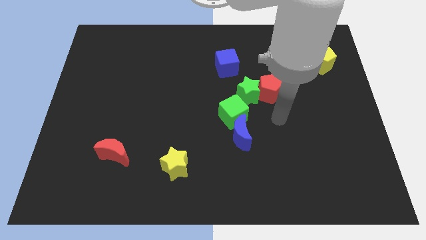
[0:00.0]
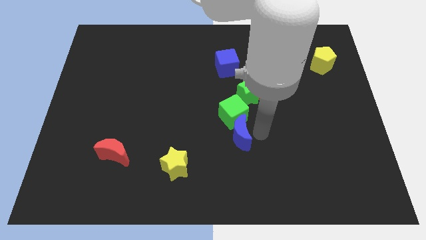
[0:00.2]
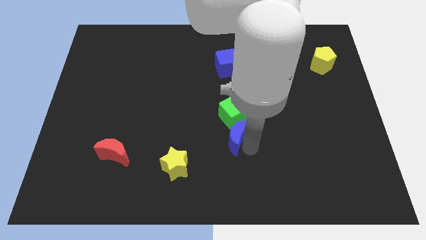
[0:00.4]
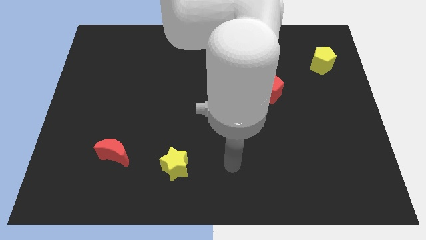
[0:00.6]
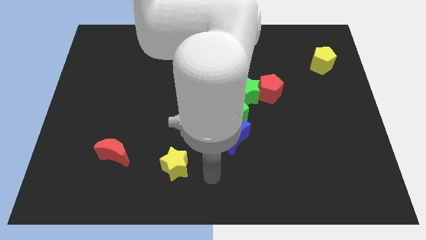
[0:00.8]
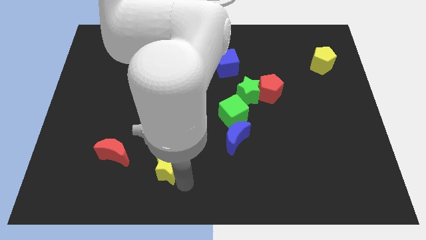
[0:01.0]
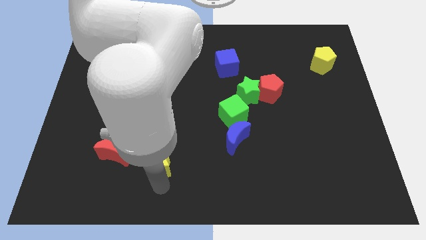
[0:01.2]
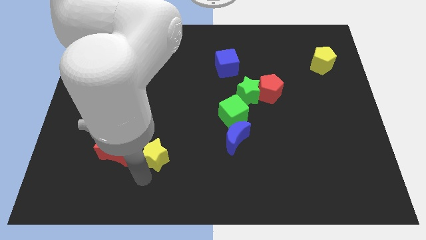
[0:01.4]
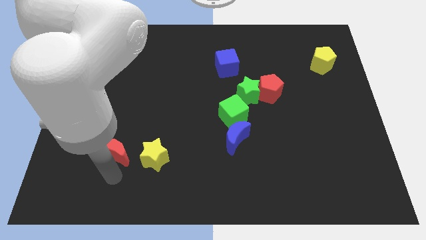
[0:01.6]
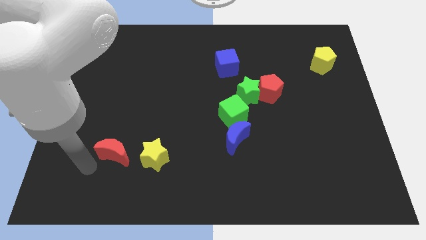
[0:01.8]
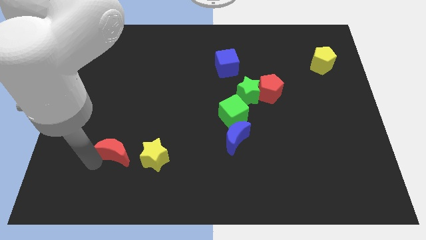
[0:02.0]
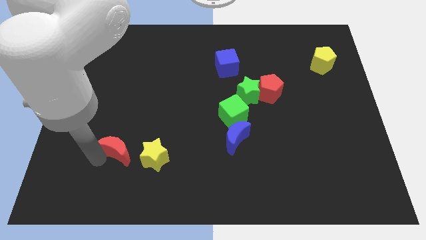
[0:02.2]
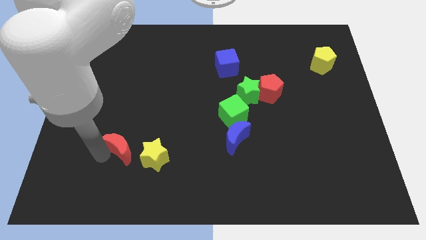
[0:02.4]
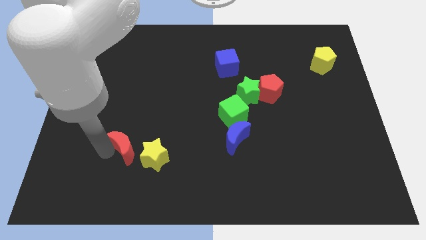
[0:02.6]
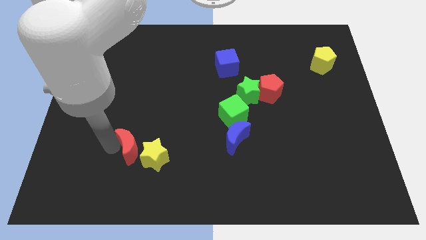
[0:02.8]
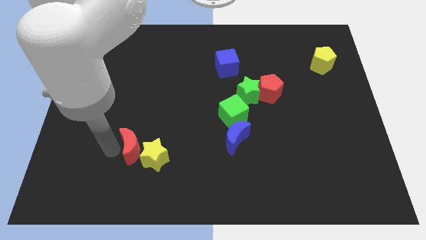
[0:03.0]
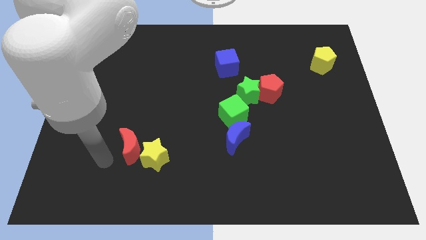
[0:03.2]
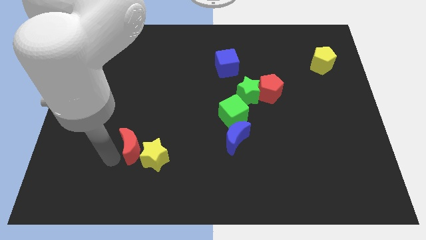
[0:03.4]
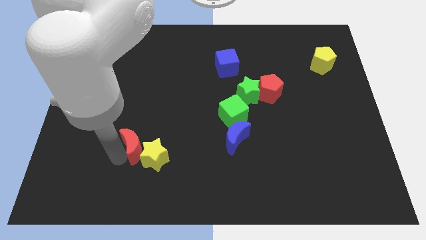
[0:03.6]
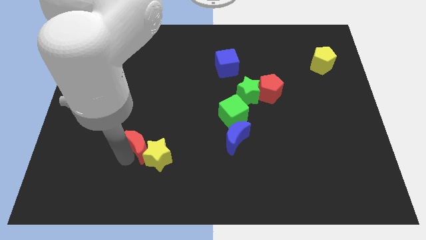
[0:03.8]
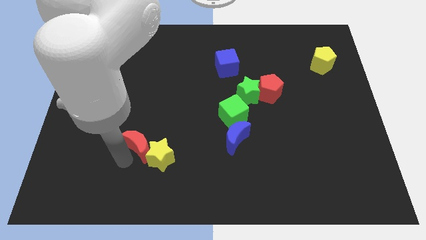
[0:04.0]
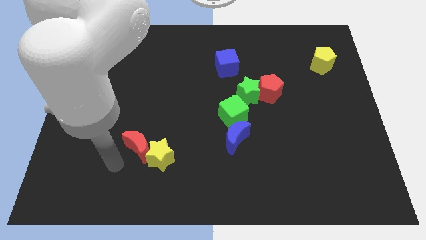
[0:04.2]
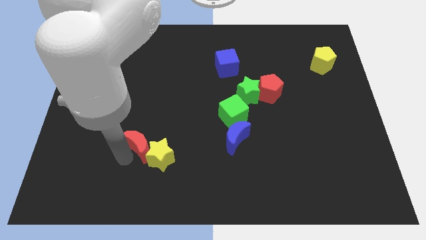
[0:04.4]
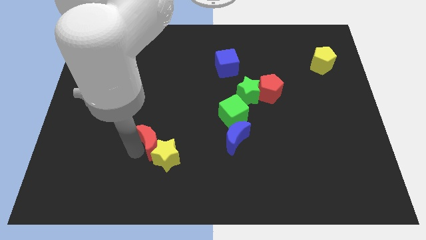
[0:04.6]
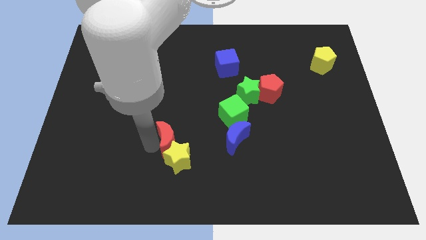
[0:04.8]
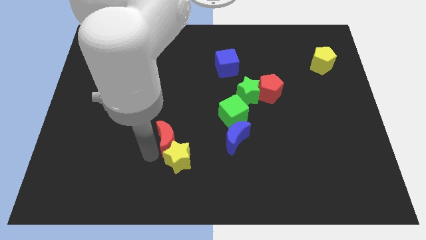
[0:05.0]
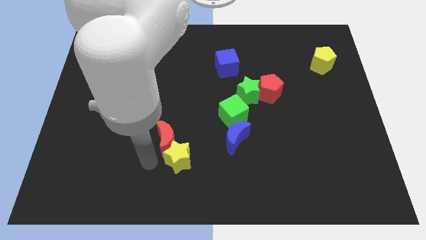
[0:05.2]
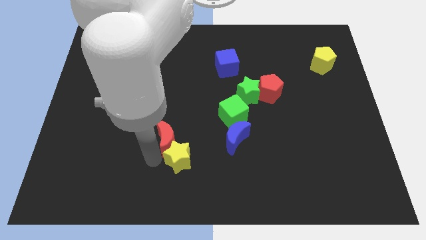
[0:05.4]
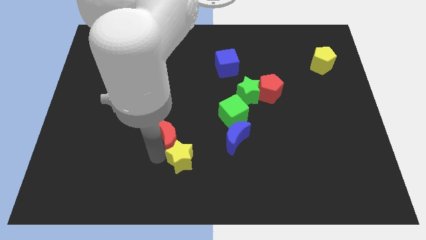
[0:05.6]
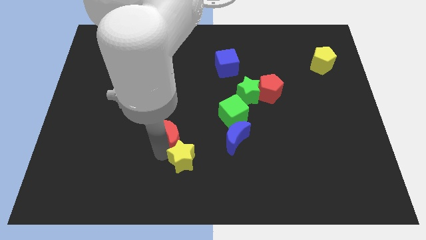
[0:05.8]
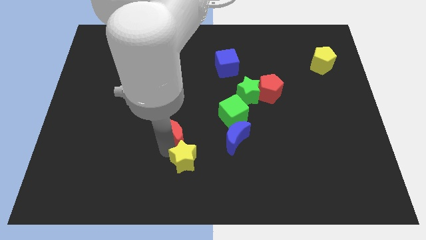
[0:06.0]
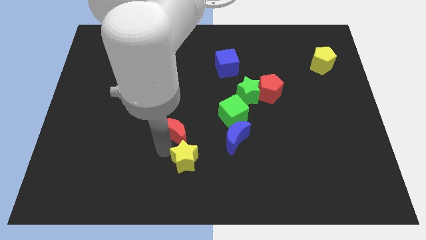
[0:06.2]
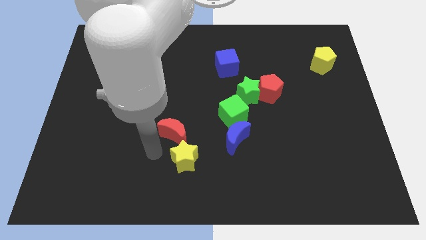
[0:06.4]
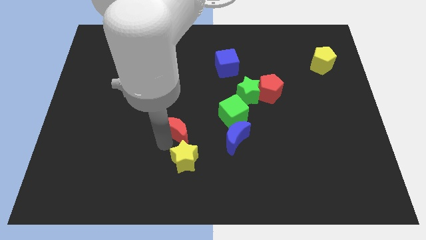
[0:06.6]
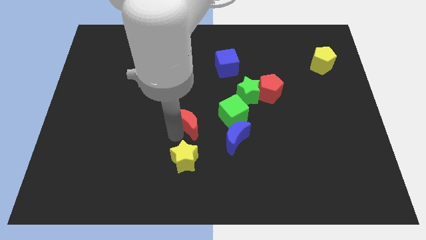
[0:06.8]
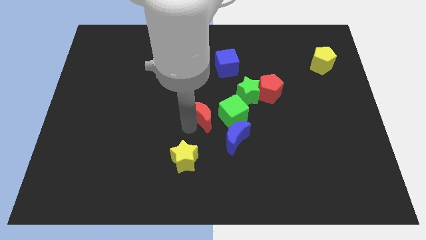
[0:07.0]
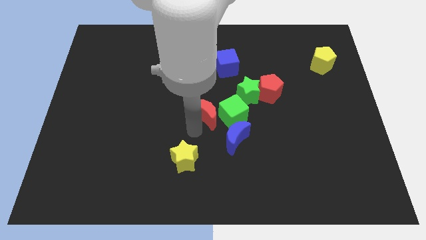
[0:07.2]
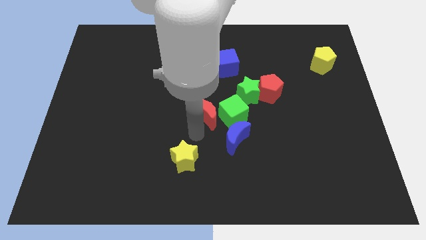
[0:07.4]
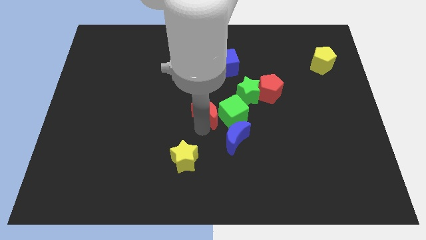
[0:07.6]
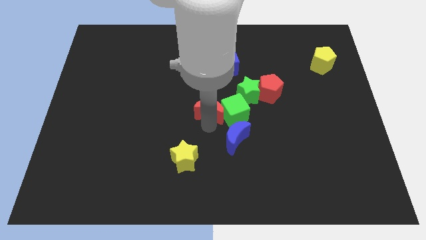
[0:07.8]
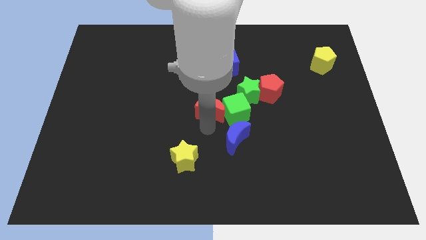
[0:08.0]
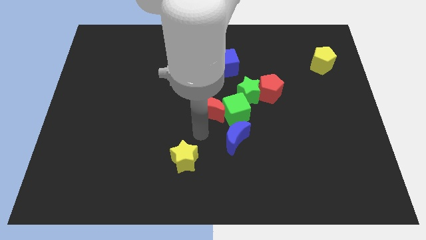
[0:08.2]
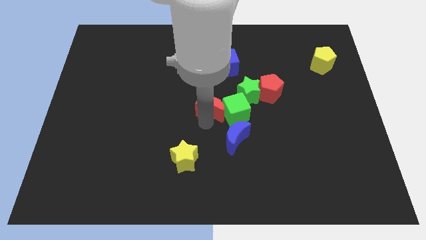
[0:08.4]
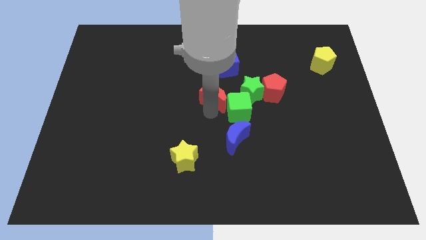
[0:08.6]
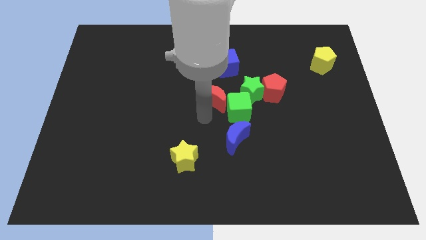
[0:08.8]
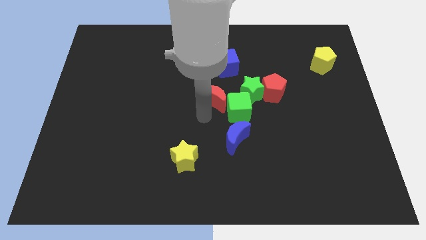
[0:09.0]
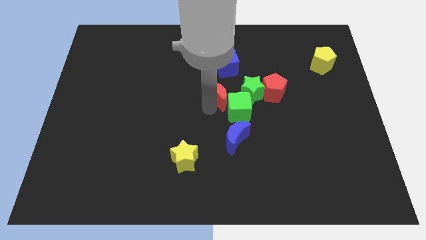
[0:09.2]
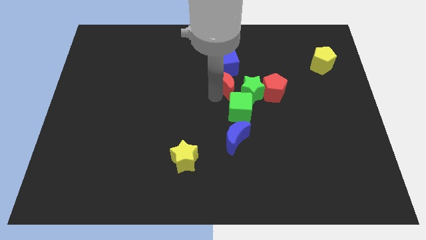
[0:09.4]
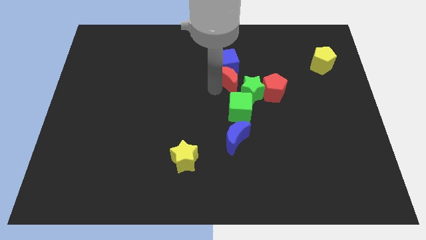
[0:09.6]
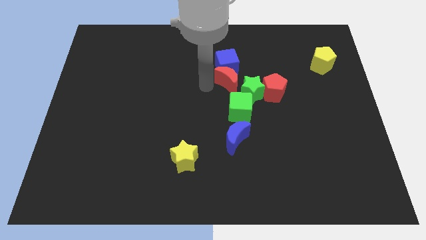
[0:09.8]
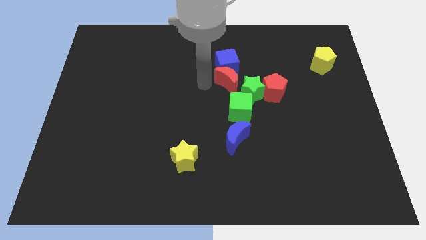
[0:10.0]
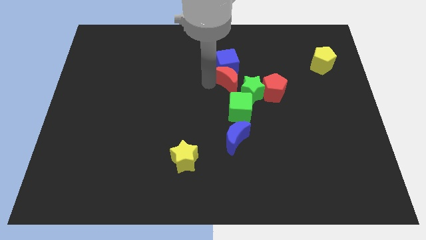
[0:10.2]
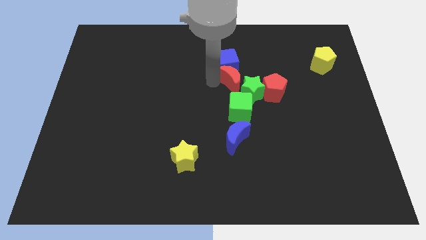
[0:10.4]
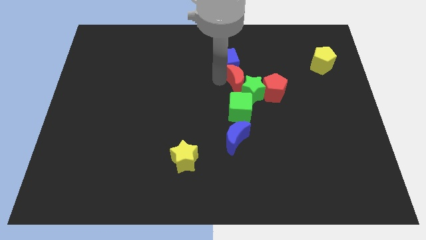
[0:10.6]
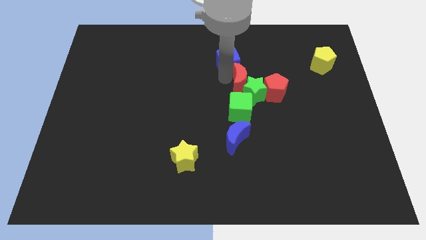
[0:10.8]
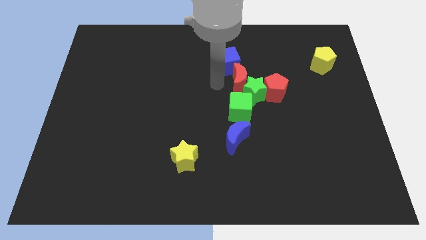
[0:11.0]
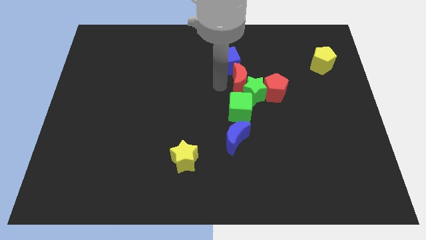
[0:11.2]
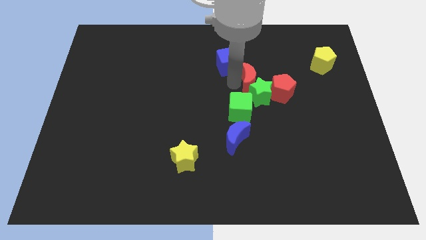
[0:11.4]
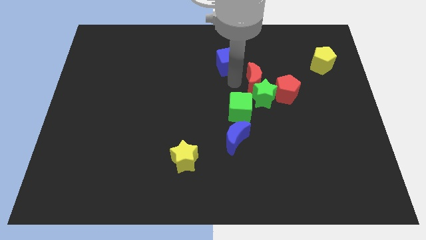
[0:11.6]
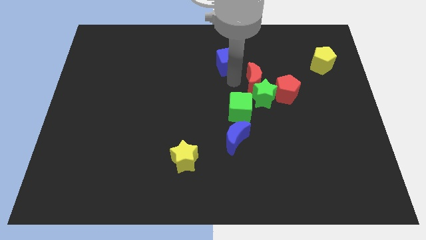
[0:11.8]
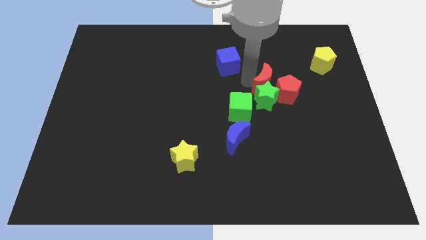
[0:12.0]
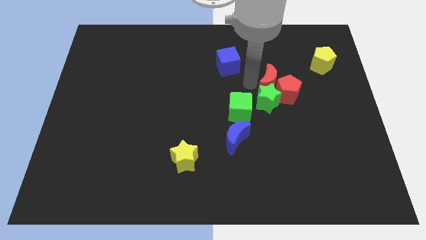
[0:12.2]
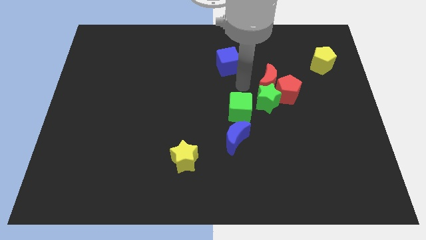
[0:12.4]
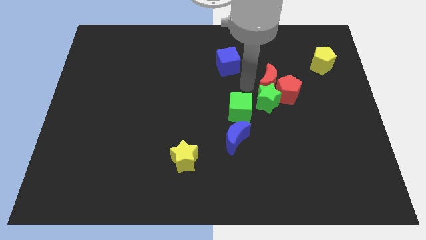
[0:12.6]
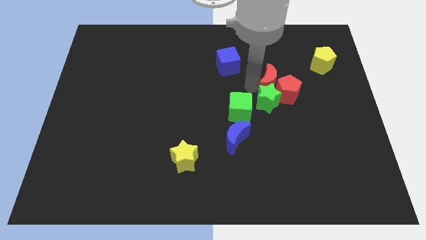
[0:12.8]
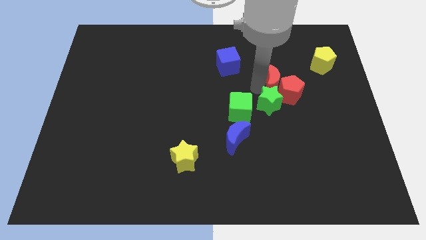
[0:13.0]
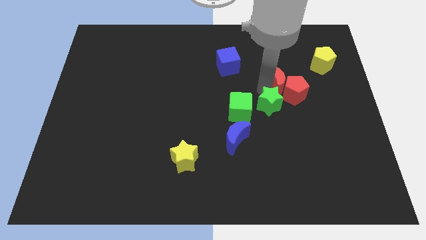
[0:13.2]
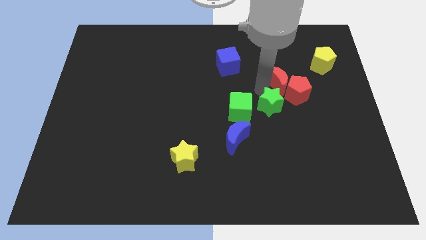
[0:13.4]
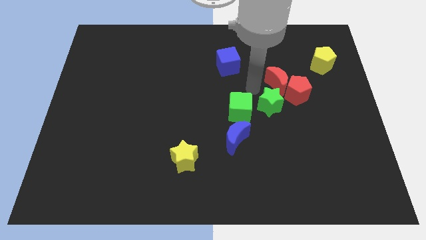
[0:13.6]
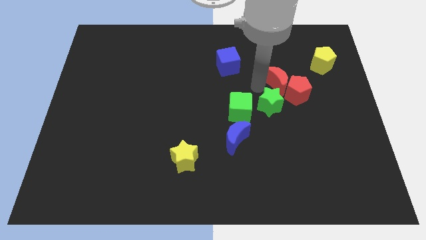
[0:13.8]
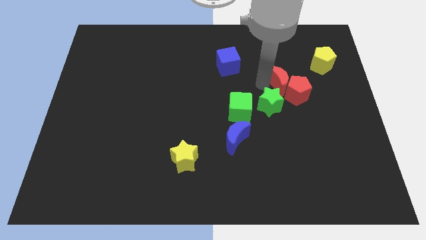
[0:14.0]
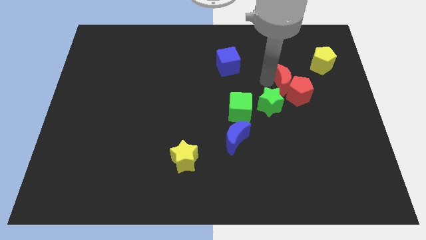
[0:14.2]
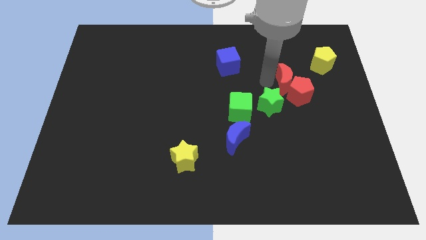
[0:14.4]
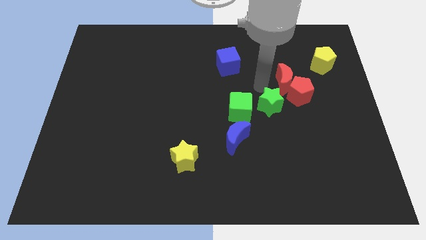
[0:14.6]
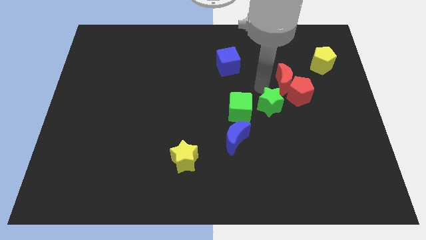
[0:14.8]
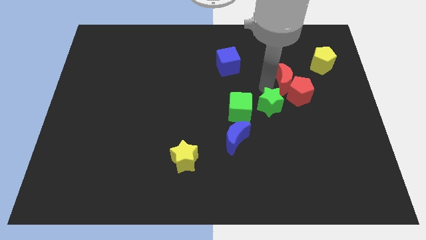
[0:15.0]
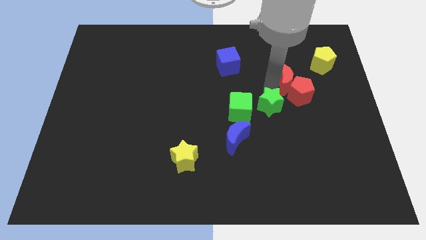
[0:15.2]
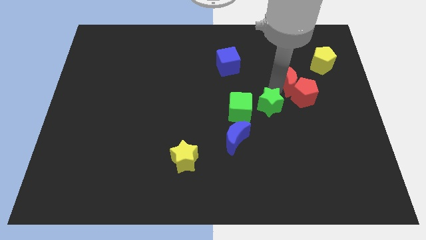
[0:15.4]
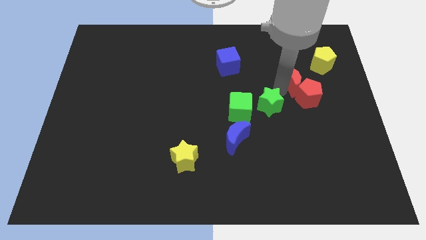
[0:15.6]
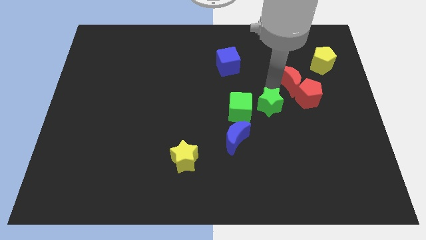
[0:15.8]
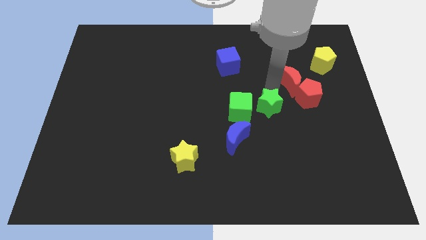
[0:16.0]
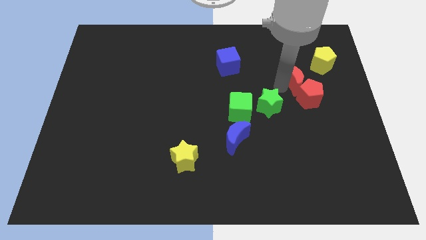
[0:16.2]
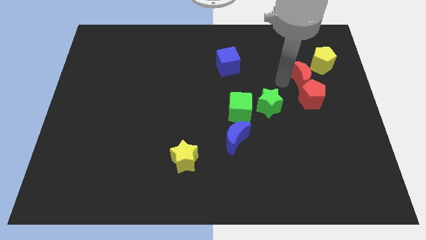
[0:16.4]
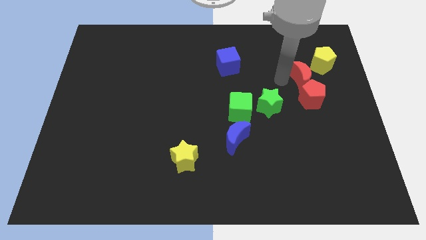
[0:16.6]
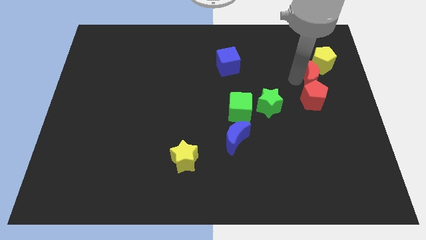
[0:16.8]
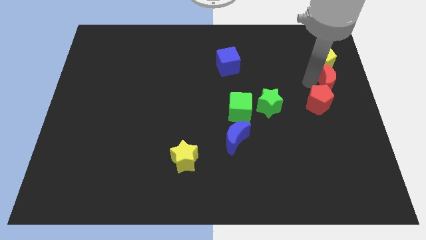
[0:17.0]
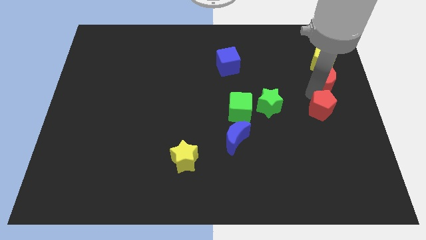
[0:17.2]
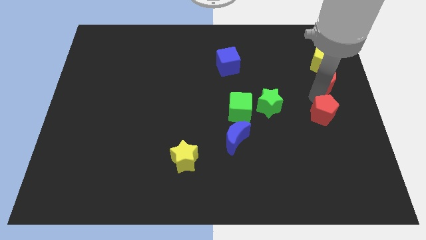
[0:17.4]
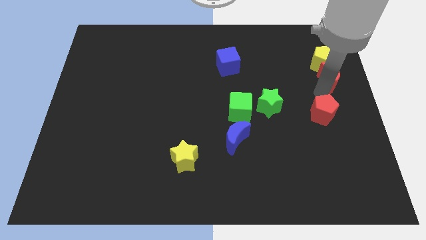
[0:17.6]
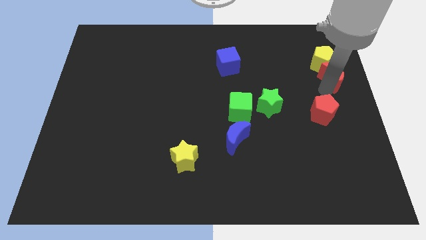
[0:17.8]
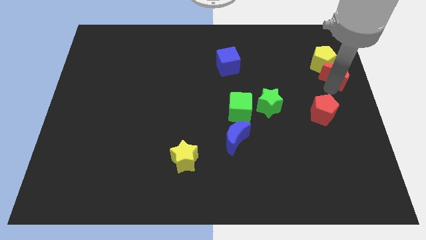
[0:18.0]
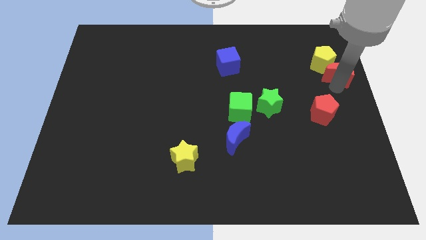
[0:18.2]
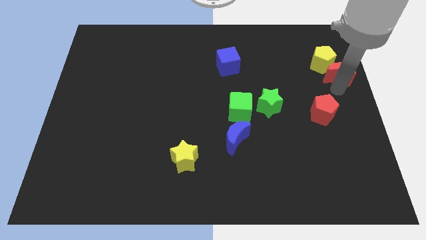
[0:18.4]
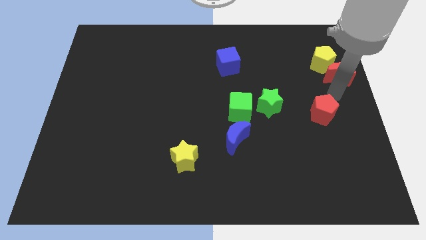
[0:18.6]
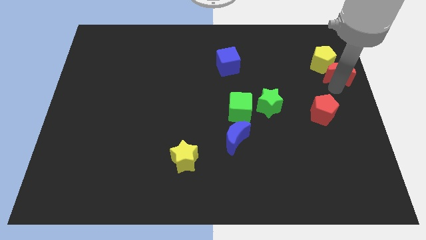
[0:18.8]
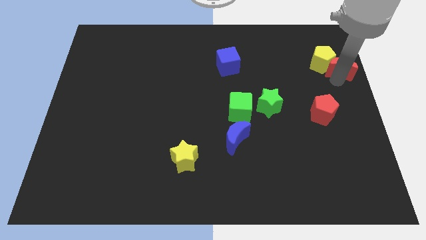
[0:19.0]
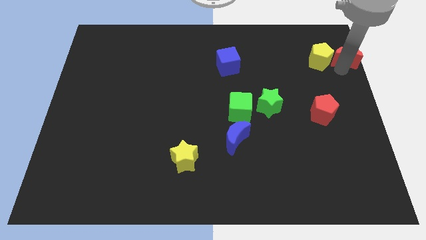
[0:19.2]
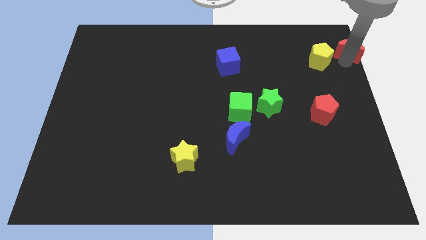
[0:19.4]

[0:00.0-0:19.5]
push the red moon to the top right of the board
